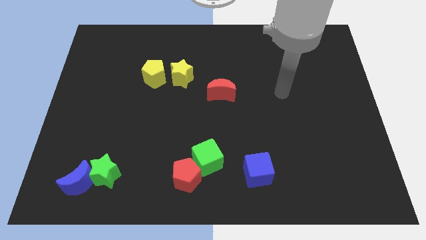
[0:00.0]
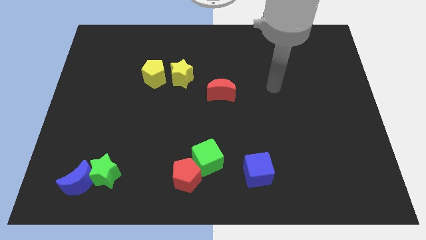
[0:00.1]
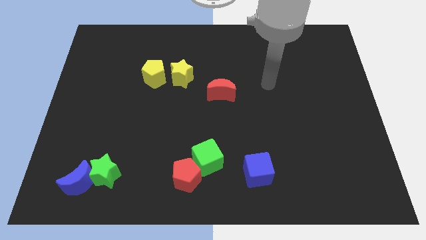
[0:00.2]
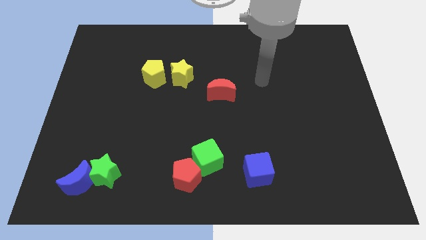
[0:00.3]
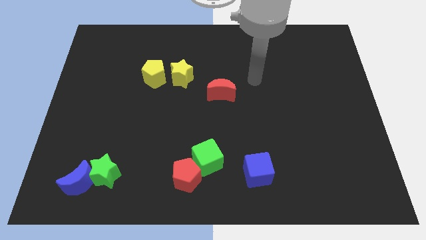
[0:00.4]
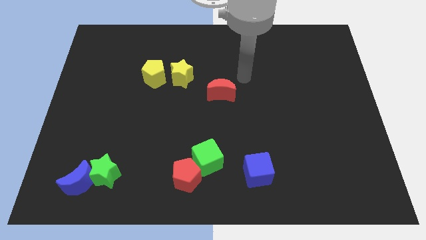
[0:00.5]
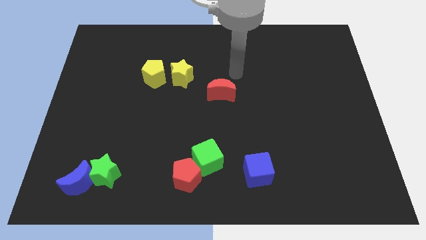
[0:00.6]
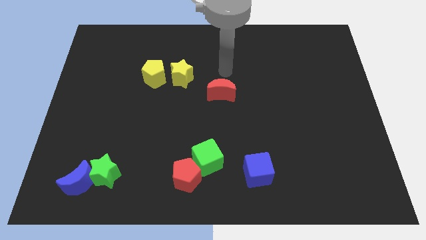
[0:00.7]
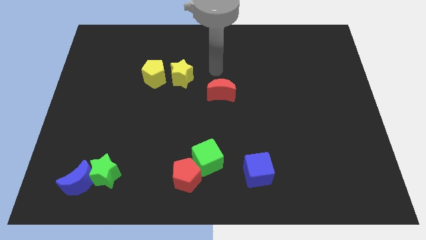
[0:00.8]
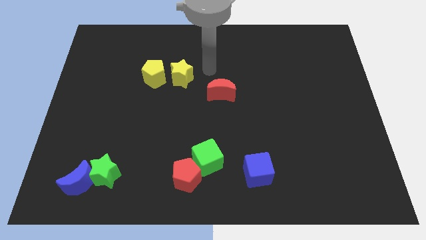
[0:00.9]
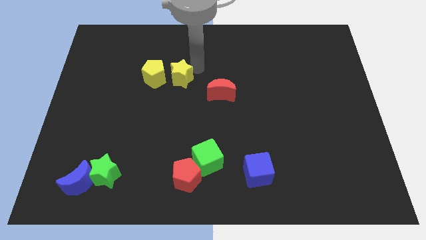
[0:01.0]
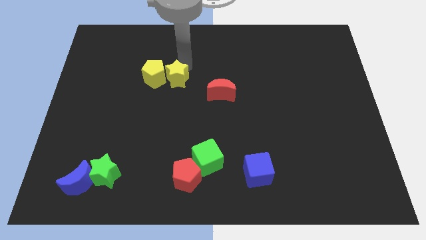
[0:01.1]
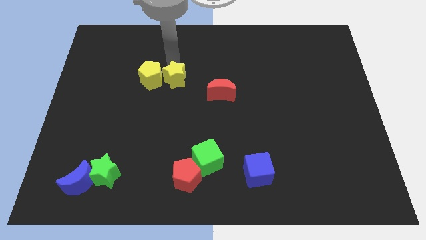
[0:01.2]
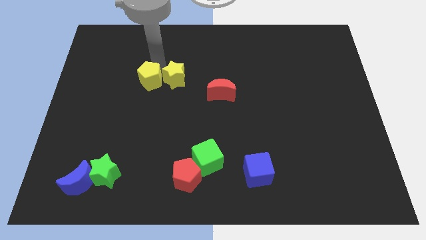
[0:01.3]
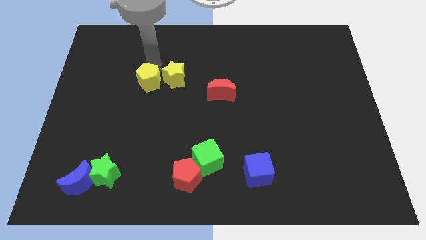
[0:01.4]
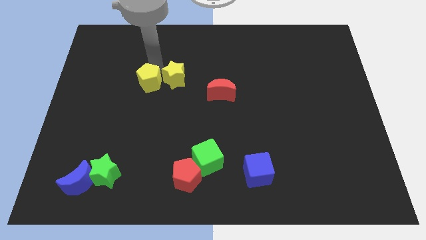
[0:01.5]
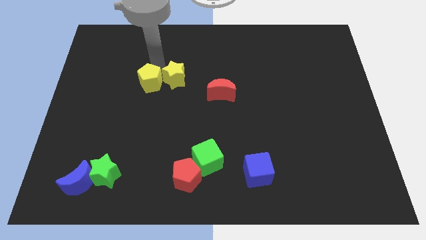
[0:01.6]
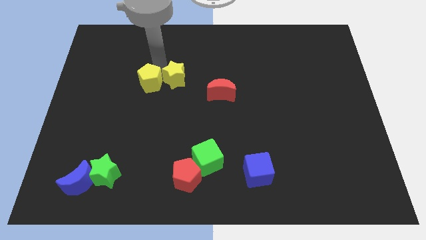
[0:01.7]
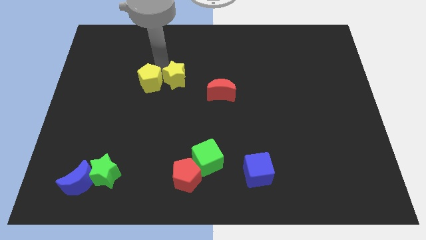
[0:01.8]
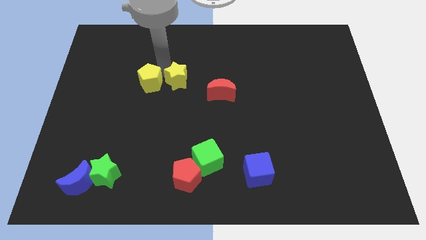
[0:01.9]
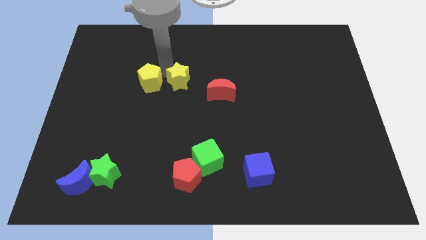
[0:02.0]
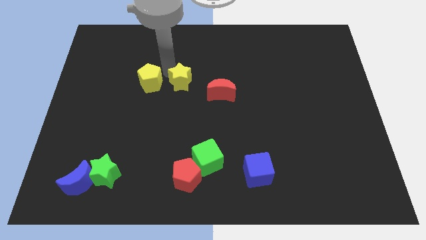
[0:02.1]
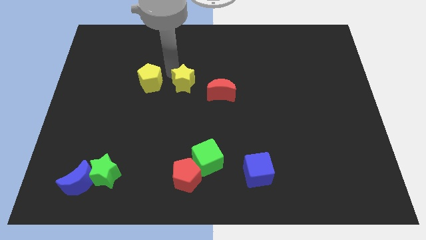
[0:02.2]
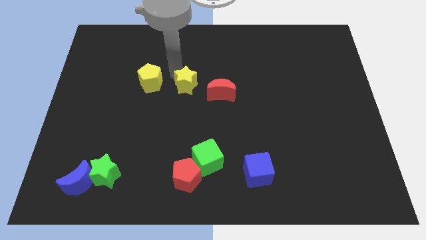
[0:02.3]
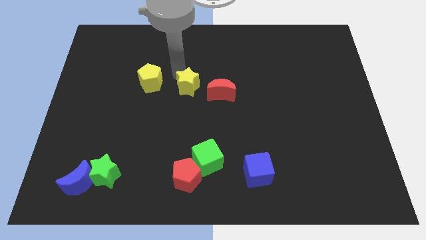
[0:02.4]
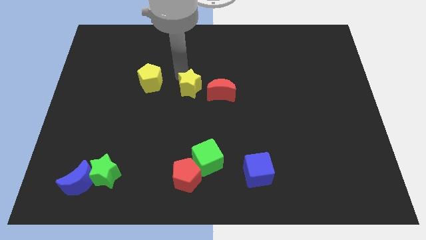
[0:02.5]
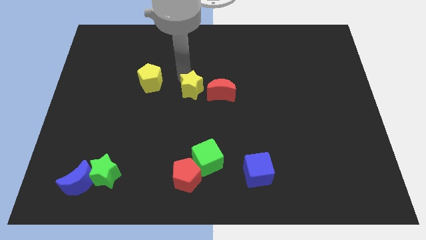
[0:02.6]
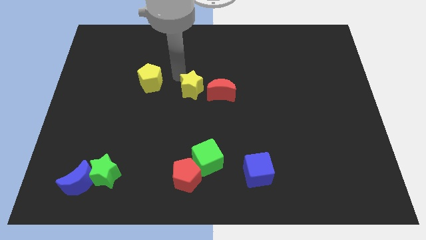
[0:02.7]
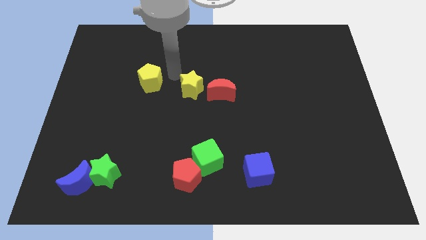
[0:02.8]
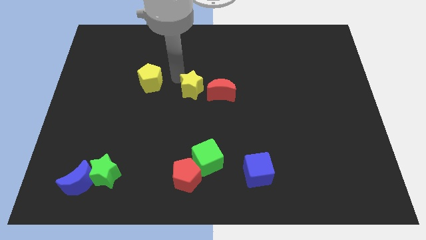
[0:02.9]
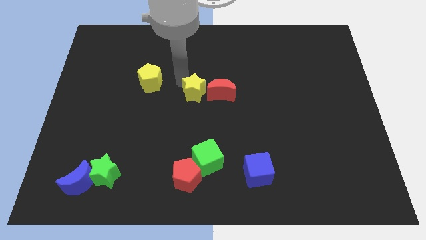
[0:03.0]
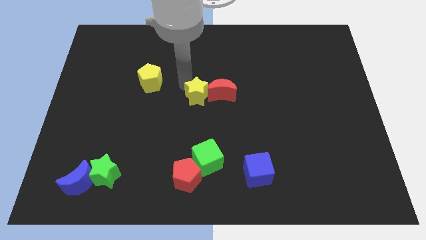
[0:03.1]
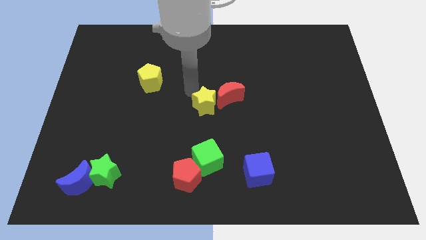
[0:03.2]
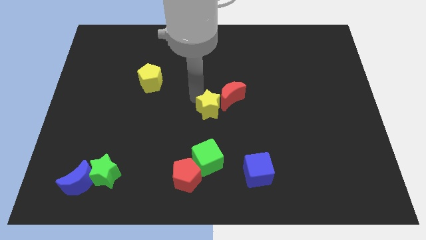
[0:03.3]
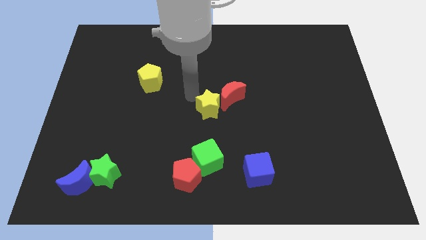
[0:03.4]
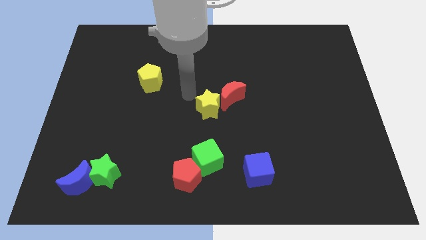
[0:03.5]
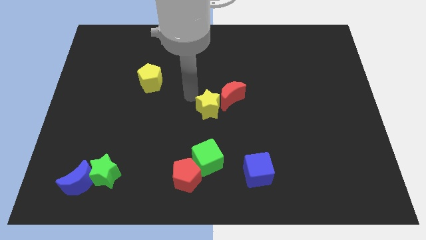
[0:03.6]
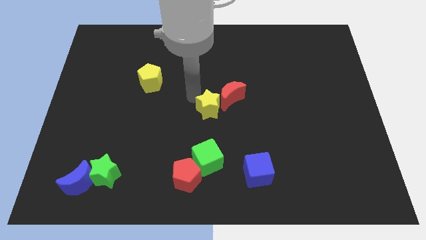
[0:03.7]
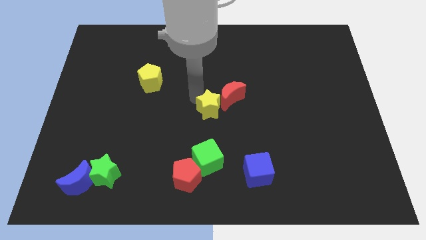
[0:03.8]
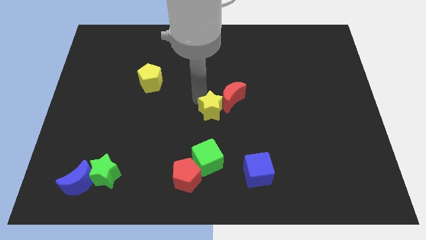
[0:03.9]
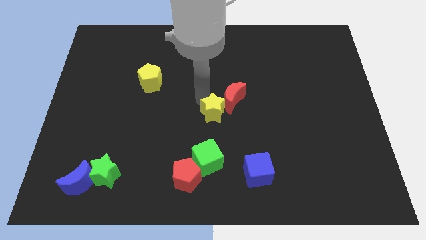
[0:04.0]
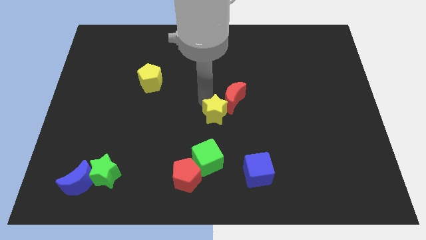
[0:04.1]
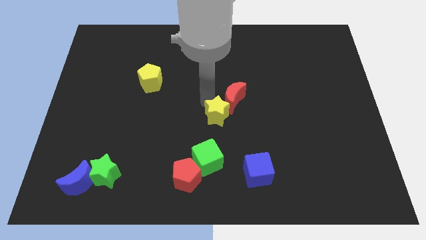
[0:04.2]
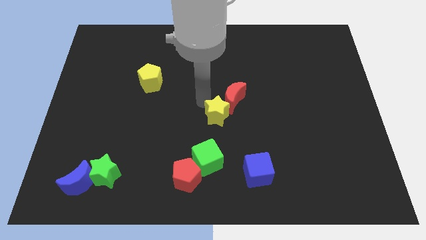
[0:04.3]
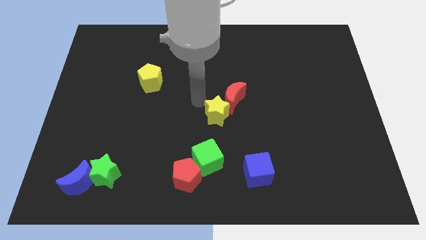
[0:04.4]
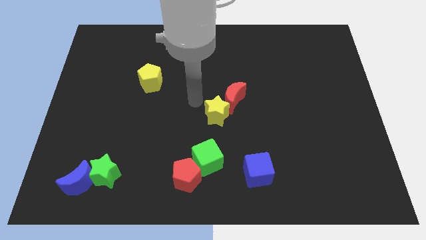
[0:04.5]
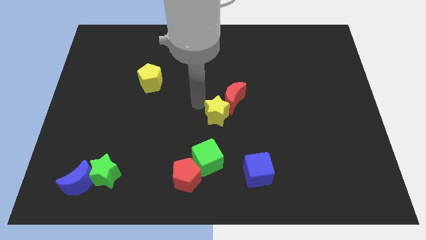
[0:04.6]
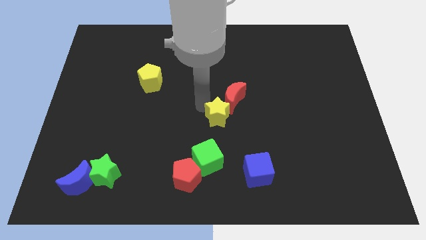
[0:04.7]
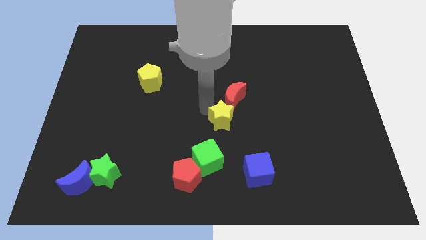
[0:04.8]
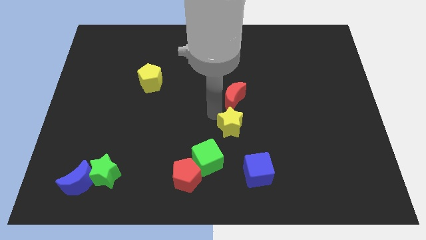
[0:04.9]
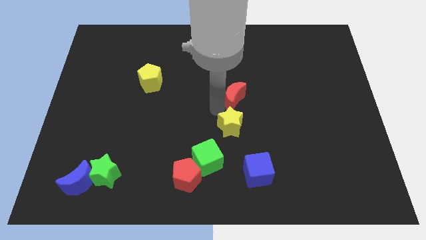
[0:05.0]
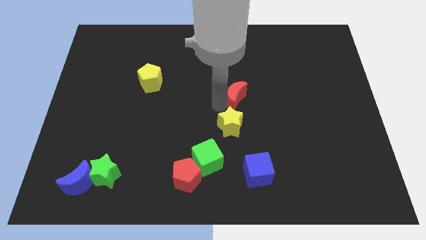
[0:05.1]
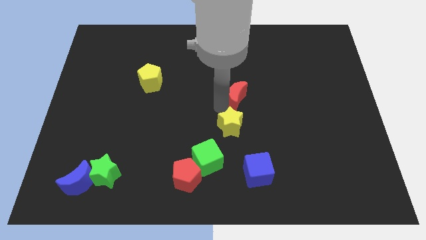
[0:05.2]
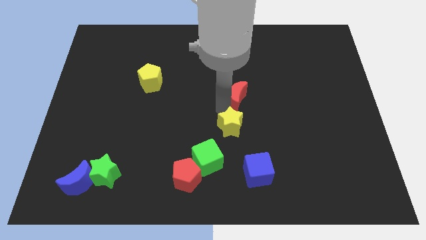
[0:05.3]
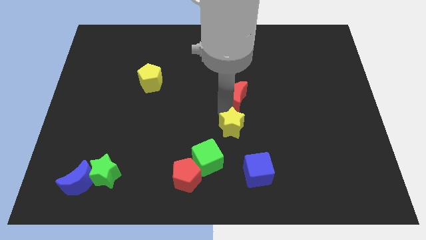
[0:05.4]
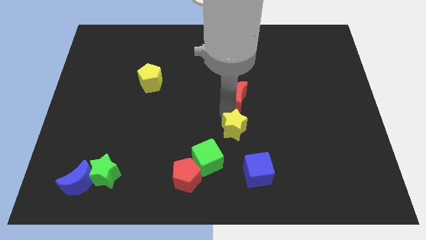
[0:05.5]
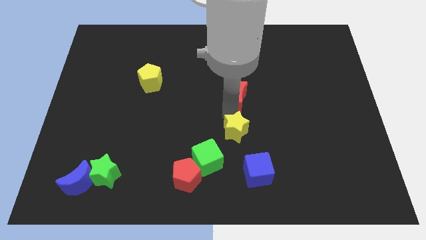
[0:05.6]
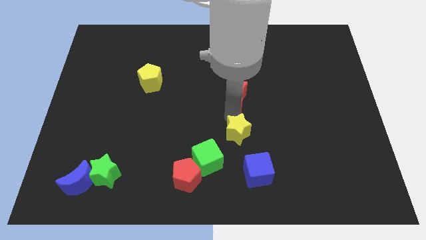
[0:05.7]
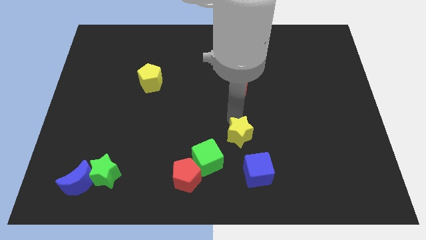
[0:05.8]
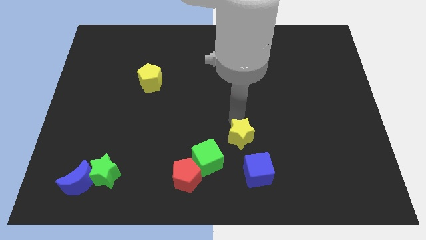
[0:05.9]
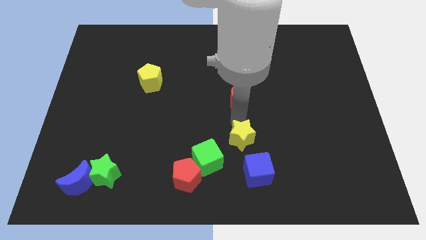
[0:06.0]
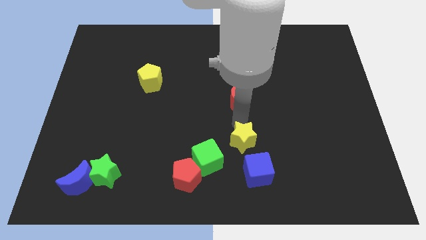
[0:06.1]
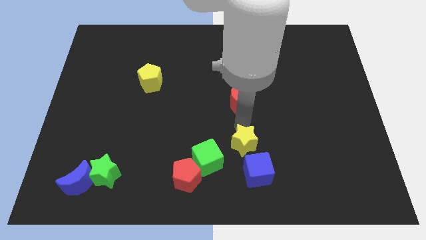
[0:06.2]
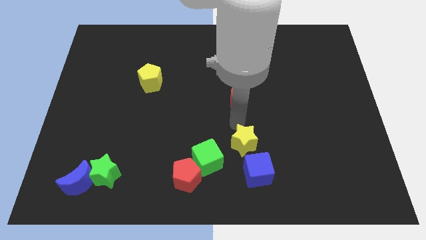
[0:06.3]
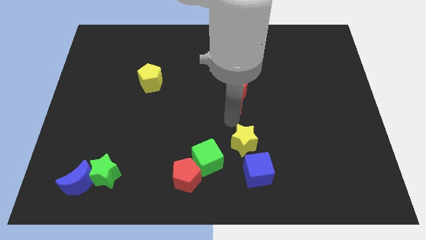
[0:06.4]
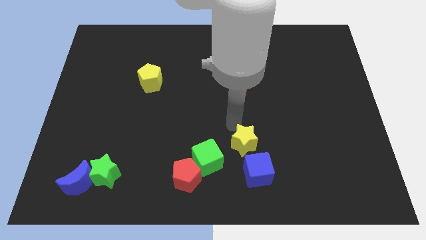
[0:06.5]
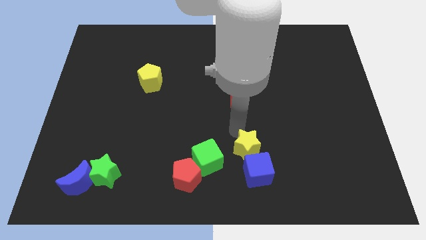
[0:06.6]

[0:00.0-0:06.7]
slide the yellow star to the blue cube

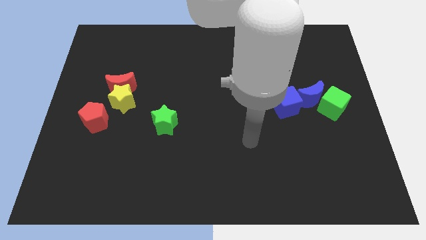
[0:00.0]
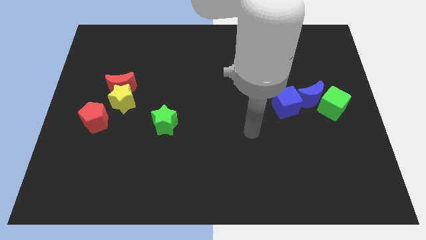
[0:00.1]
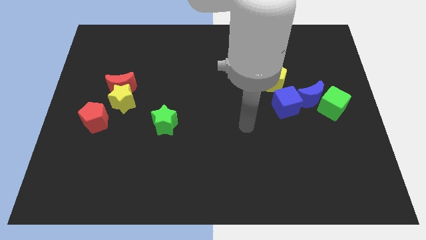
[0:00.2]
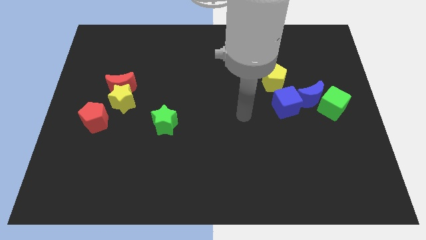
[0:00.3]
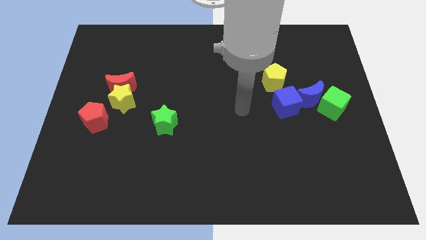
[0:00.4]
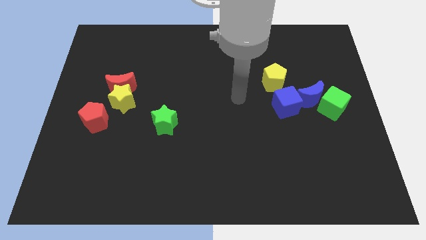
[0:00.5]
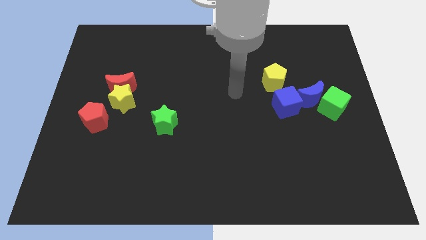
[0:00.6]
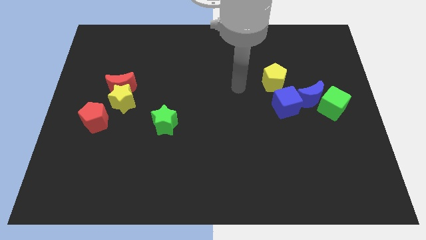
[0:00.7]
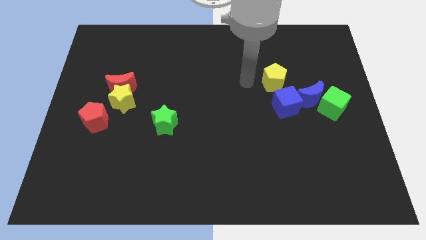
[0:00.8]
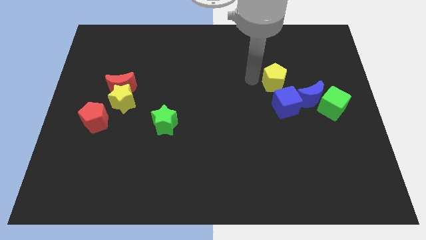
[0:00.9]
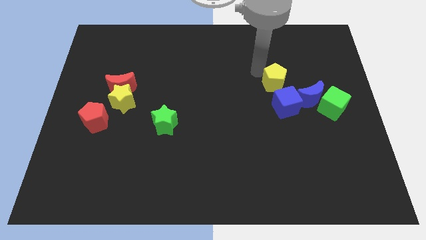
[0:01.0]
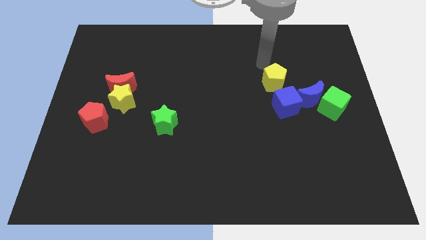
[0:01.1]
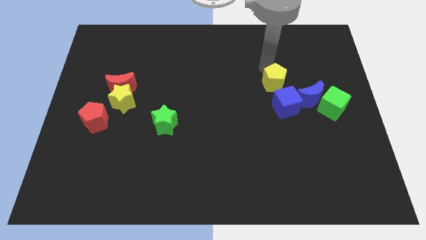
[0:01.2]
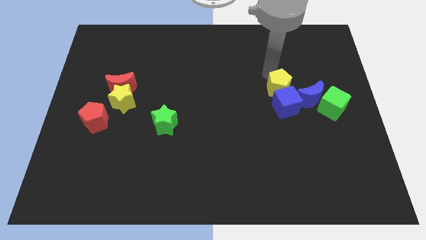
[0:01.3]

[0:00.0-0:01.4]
push the yellow pentagon next to the blue cube
